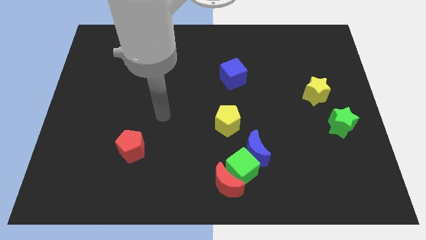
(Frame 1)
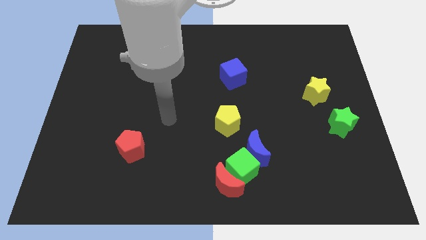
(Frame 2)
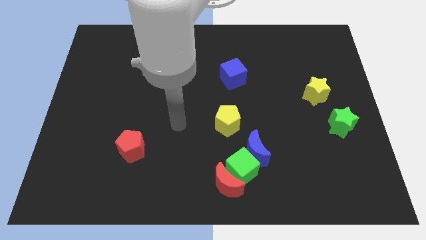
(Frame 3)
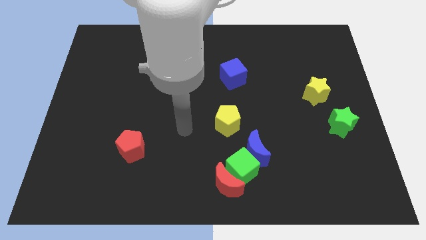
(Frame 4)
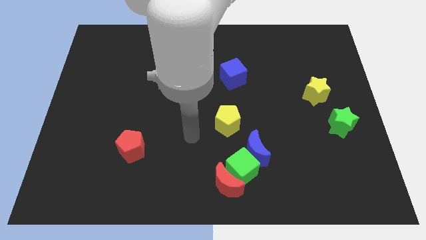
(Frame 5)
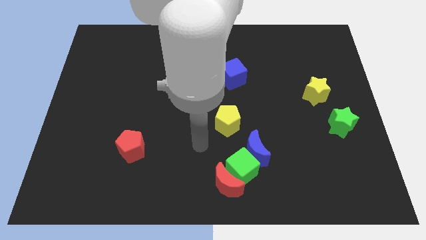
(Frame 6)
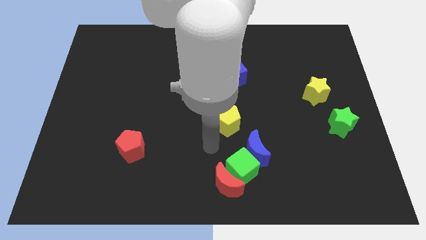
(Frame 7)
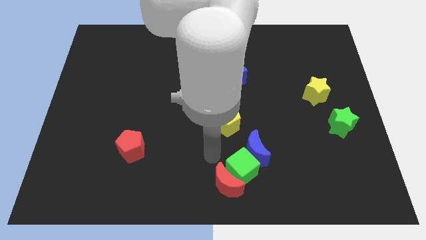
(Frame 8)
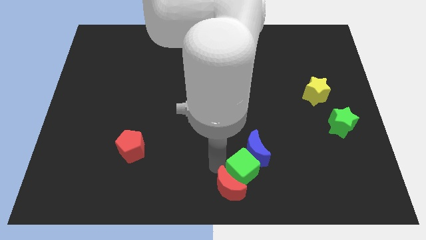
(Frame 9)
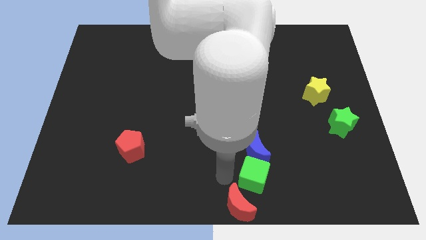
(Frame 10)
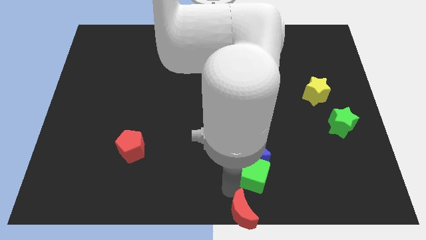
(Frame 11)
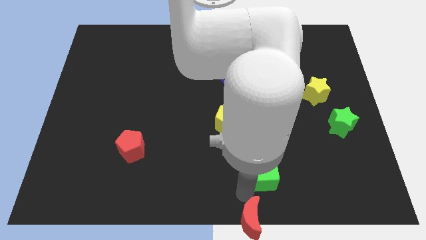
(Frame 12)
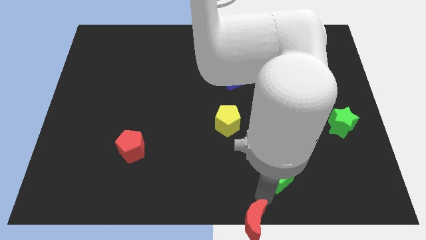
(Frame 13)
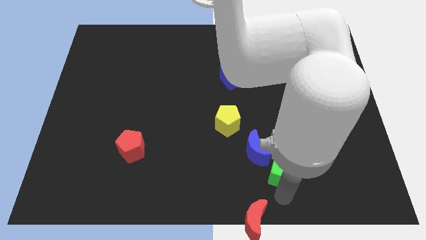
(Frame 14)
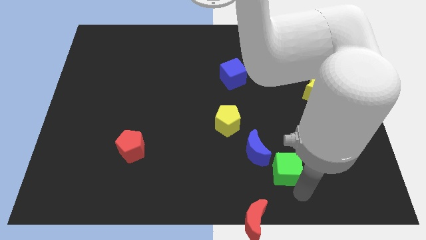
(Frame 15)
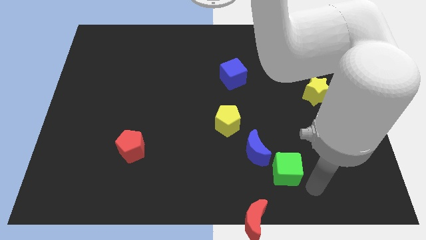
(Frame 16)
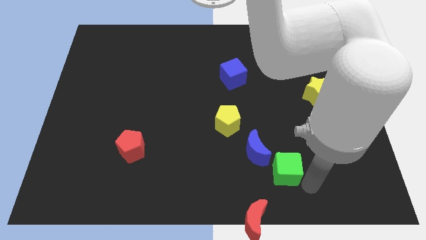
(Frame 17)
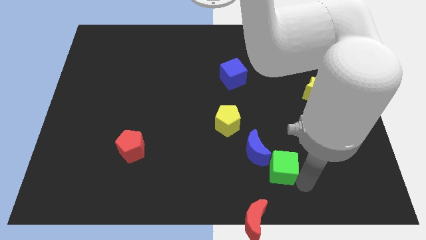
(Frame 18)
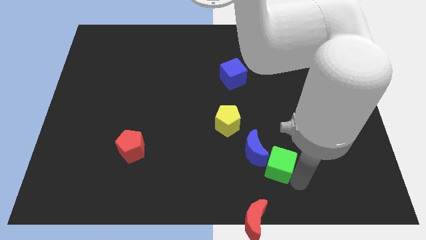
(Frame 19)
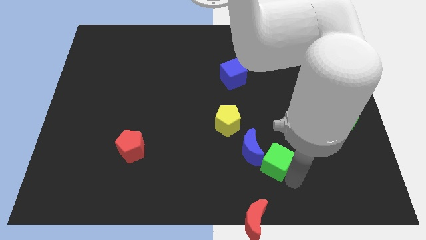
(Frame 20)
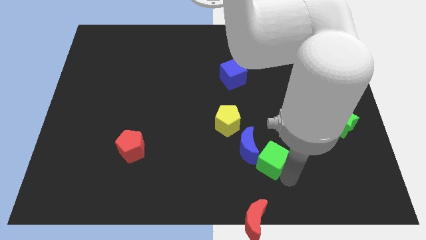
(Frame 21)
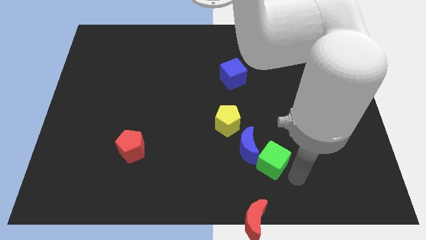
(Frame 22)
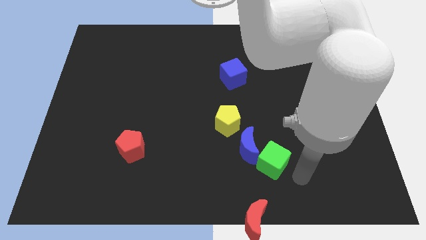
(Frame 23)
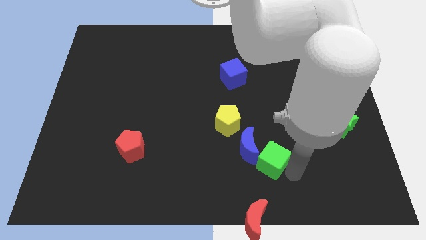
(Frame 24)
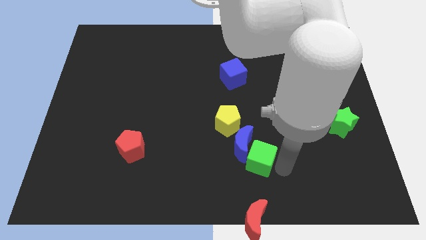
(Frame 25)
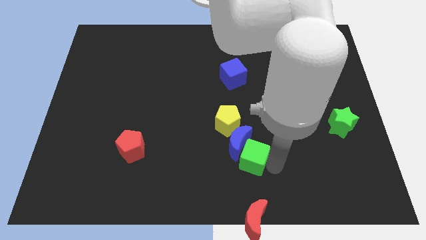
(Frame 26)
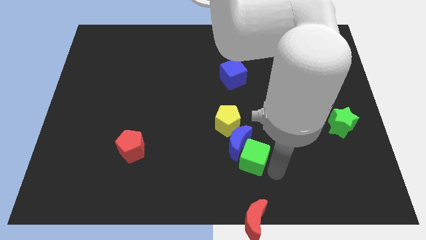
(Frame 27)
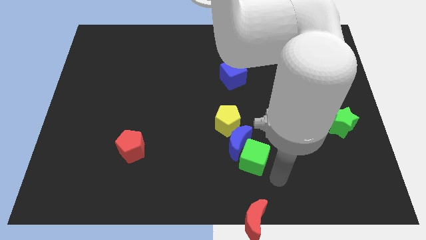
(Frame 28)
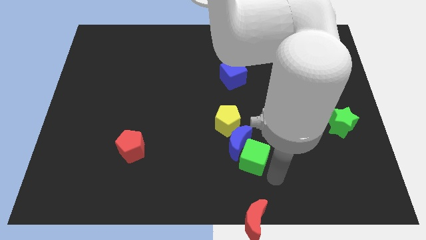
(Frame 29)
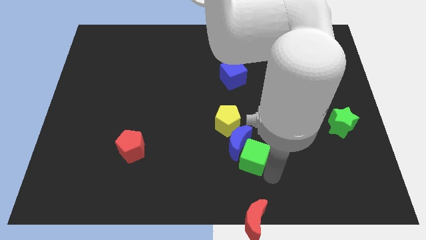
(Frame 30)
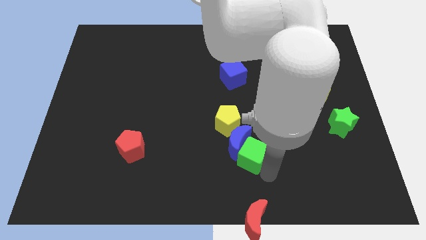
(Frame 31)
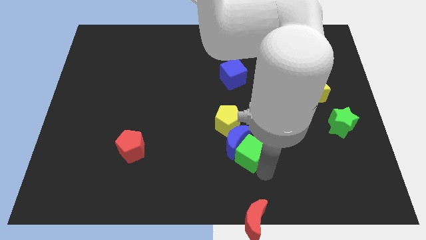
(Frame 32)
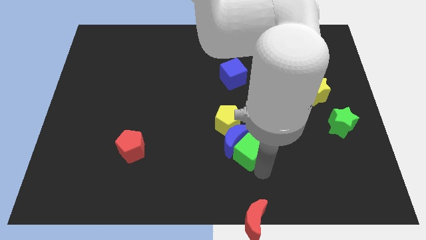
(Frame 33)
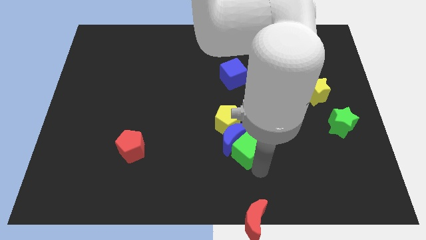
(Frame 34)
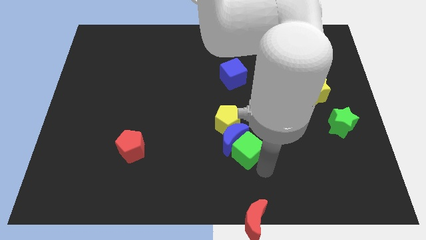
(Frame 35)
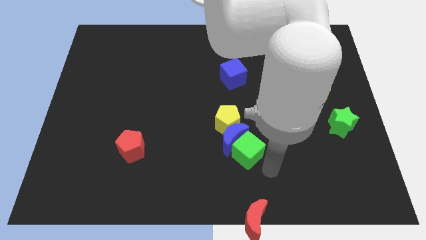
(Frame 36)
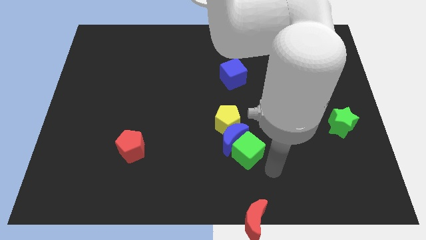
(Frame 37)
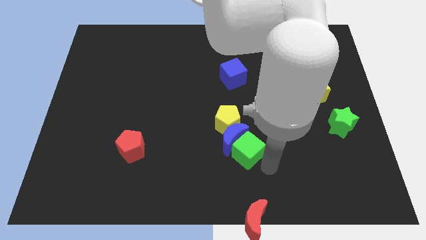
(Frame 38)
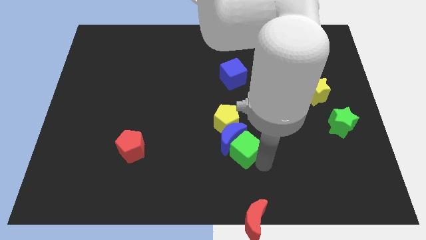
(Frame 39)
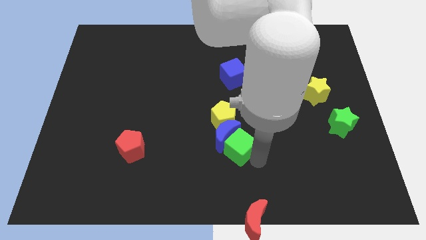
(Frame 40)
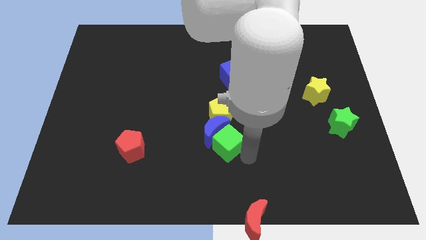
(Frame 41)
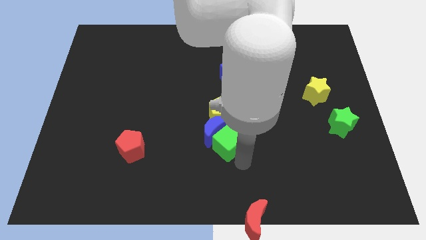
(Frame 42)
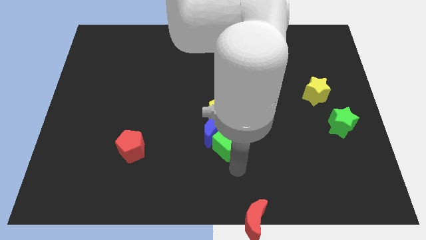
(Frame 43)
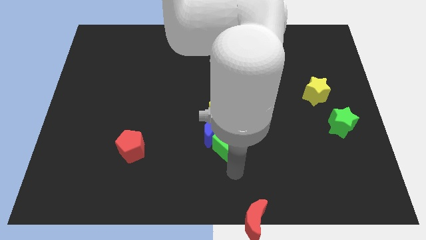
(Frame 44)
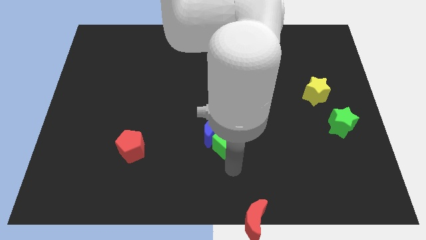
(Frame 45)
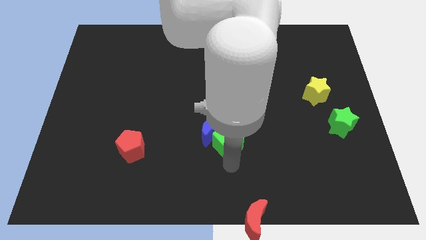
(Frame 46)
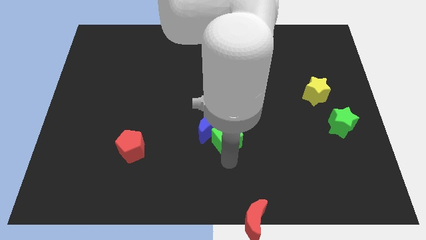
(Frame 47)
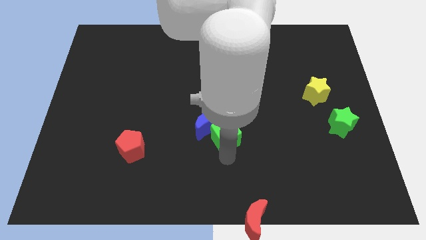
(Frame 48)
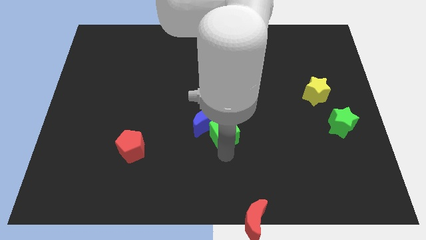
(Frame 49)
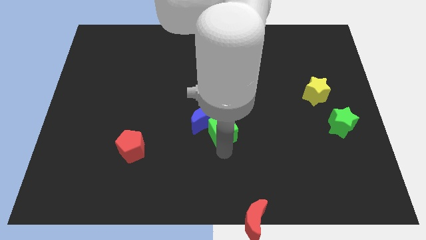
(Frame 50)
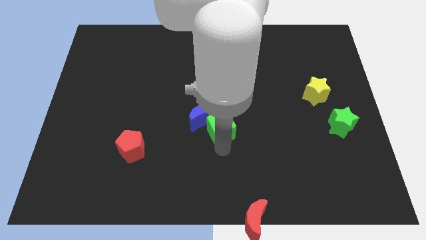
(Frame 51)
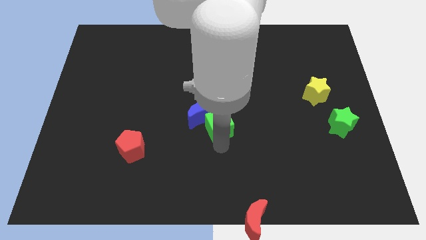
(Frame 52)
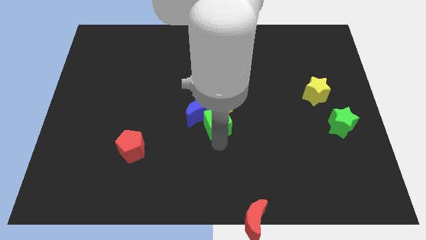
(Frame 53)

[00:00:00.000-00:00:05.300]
slide the green cube close to the yellow pentagon

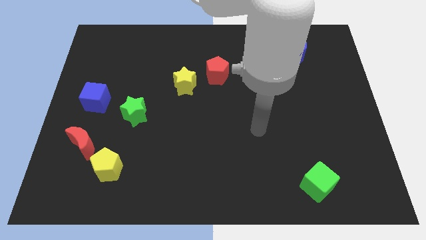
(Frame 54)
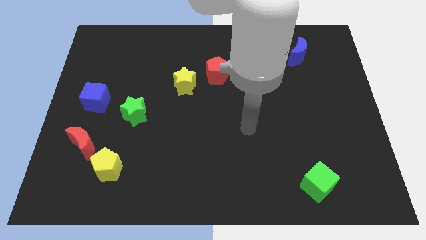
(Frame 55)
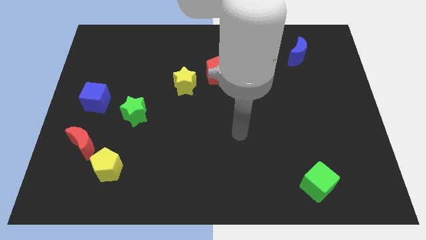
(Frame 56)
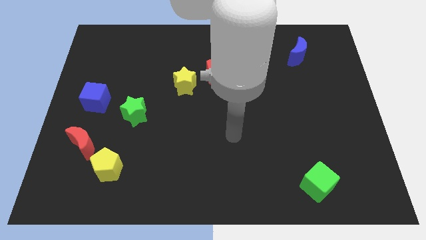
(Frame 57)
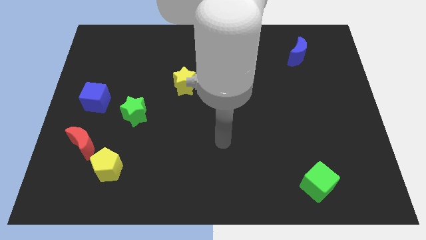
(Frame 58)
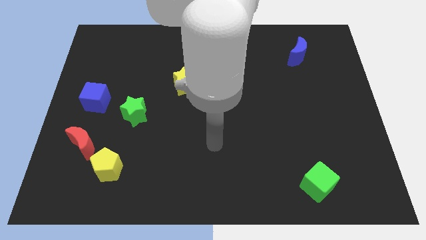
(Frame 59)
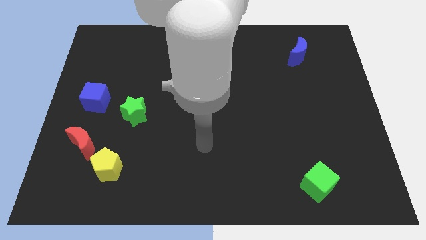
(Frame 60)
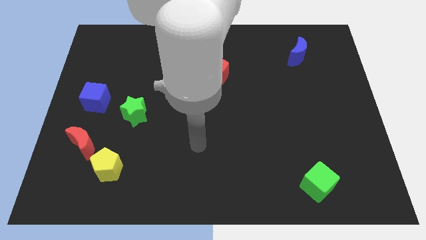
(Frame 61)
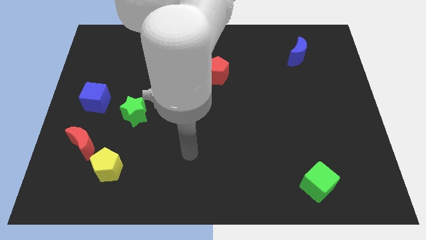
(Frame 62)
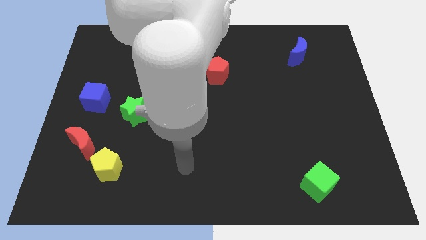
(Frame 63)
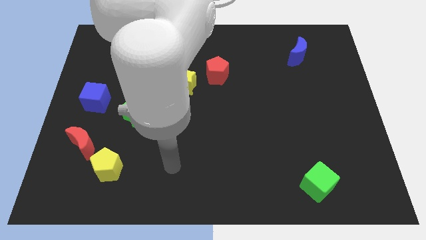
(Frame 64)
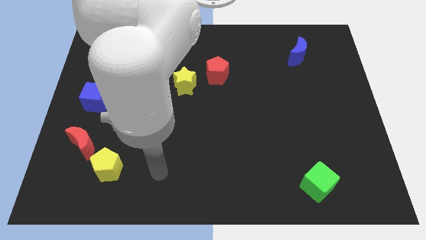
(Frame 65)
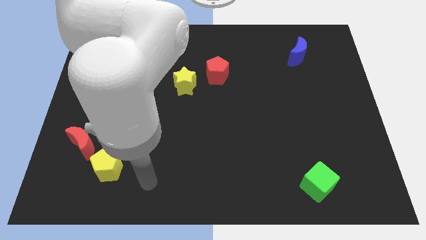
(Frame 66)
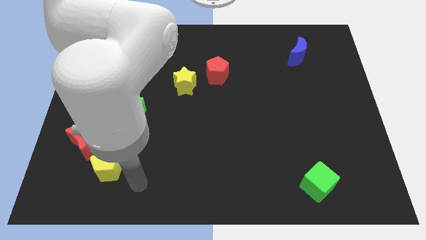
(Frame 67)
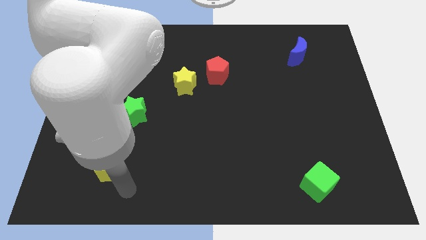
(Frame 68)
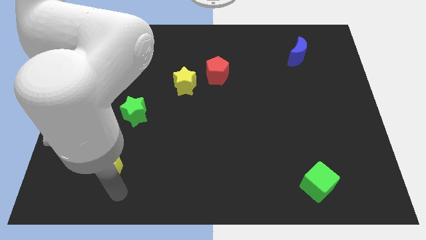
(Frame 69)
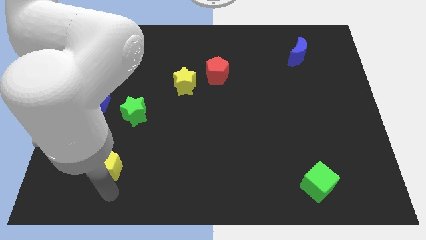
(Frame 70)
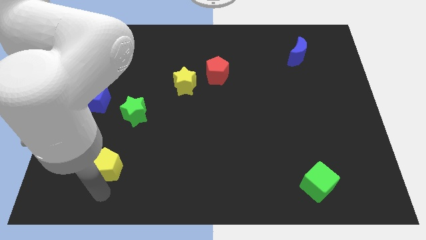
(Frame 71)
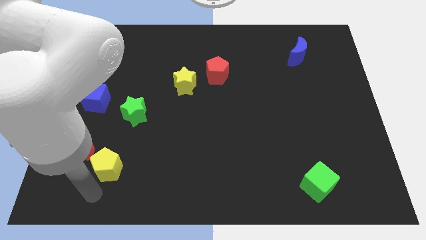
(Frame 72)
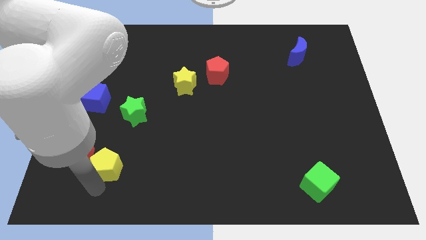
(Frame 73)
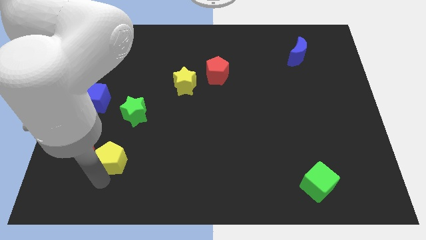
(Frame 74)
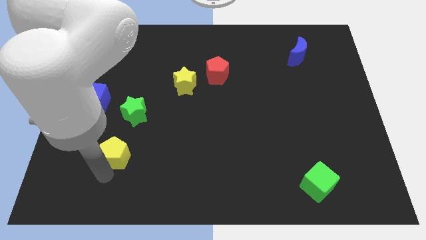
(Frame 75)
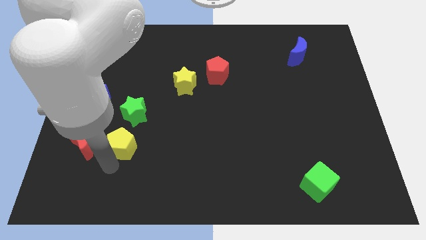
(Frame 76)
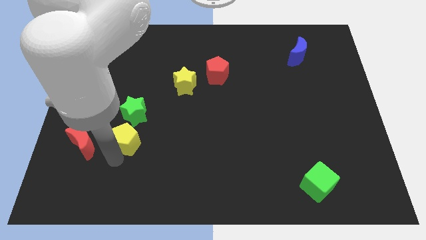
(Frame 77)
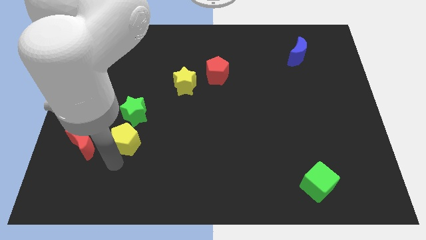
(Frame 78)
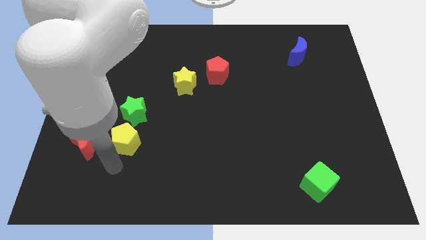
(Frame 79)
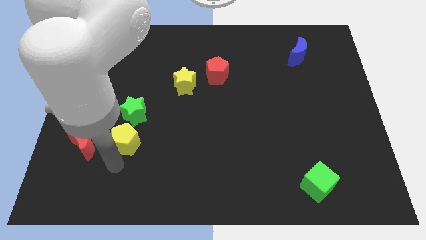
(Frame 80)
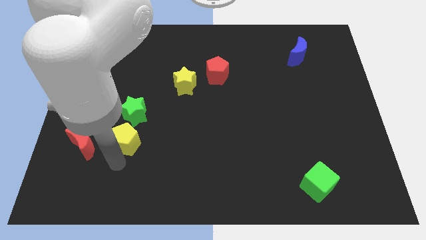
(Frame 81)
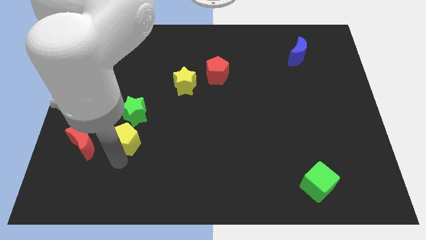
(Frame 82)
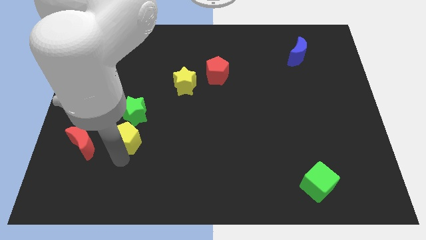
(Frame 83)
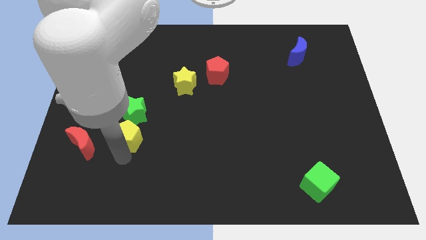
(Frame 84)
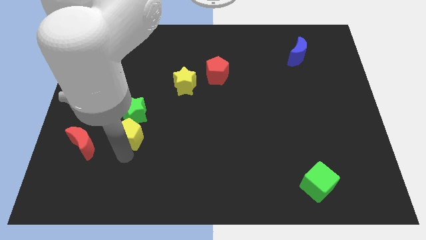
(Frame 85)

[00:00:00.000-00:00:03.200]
slide the yellow pentagon to the green star
